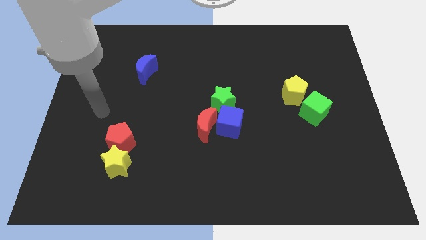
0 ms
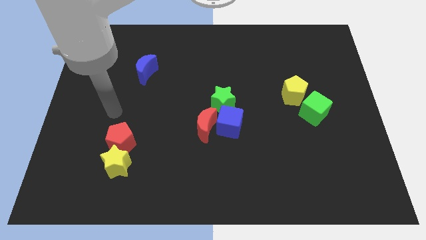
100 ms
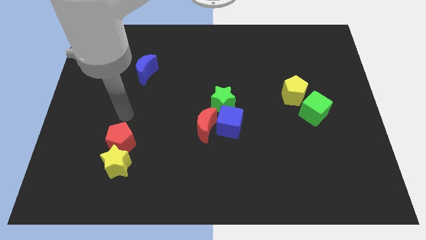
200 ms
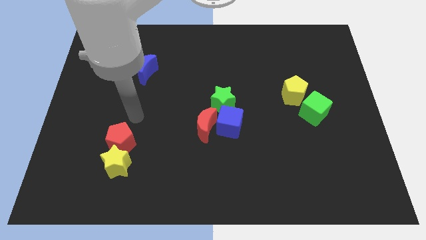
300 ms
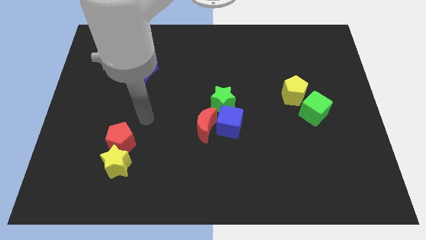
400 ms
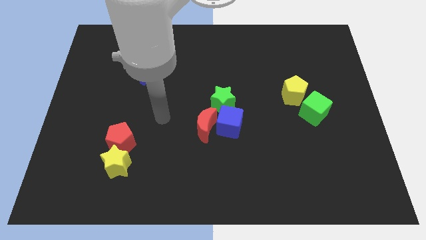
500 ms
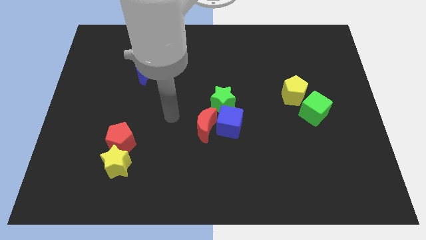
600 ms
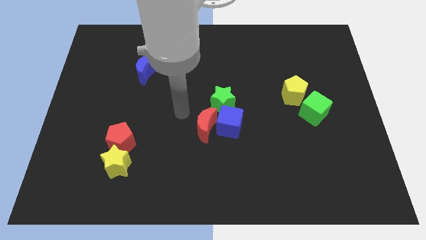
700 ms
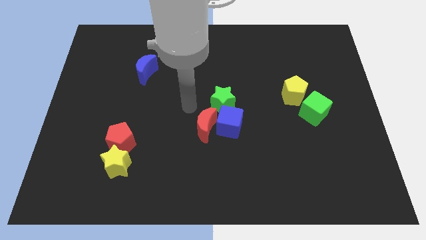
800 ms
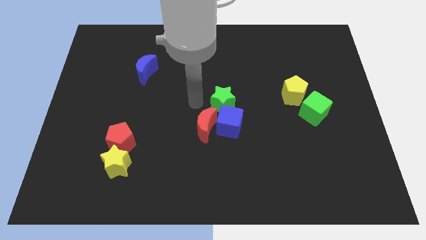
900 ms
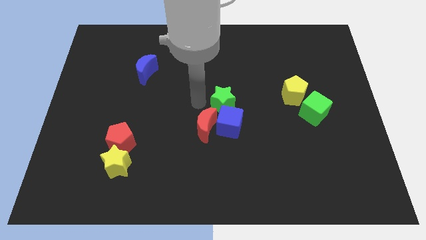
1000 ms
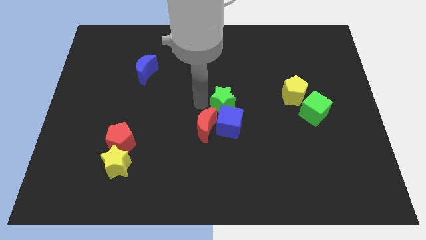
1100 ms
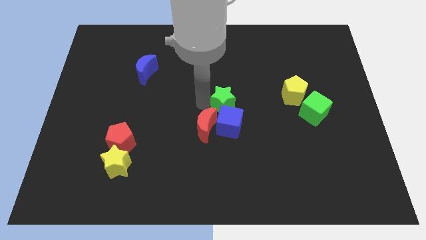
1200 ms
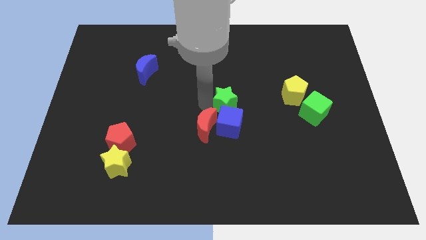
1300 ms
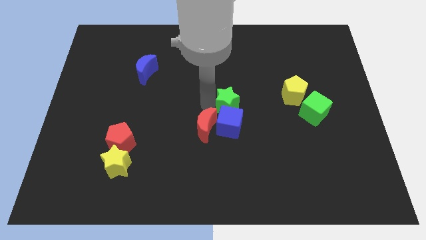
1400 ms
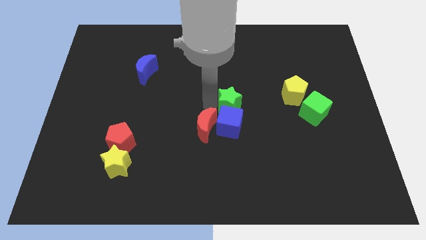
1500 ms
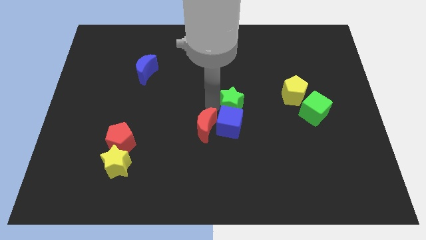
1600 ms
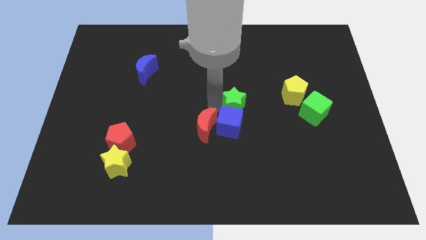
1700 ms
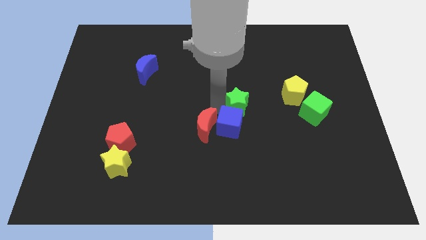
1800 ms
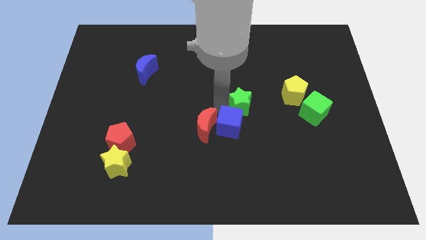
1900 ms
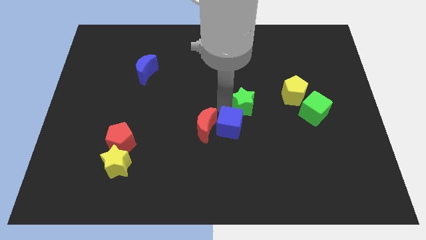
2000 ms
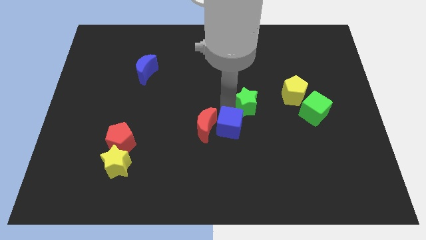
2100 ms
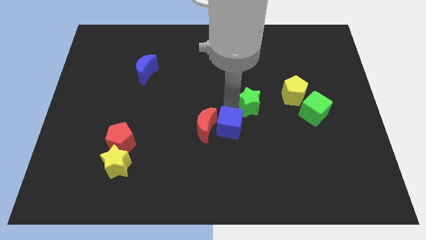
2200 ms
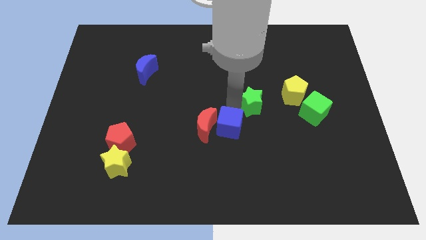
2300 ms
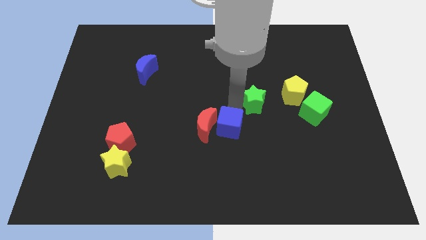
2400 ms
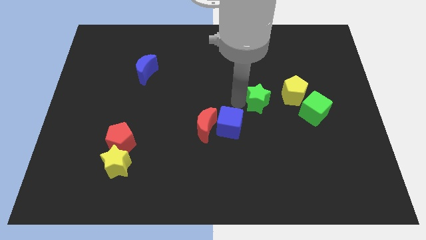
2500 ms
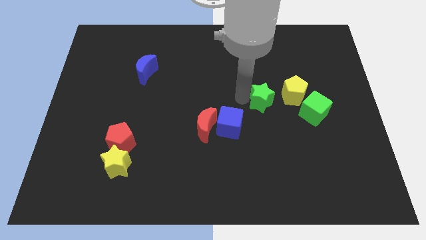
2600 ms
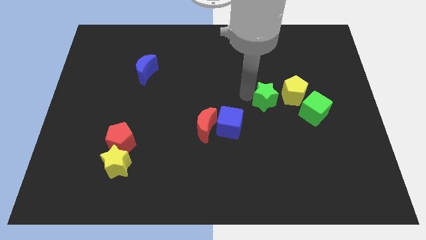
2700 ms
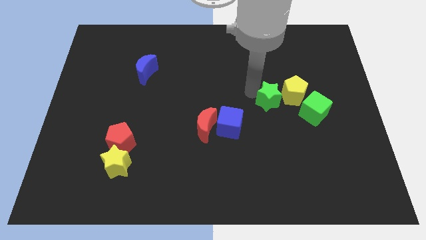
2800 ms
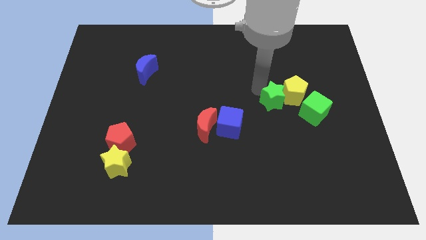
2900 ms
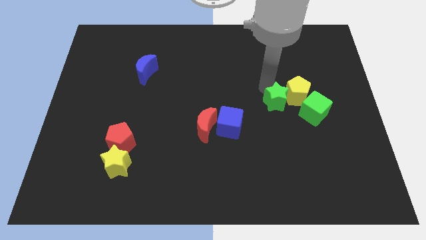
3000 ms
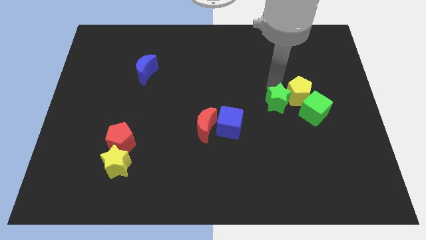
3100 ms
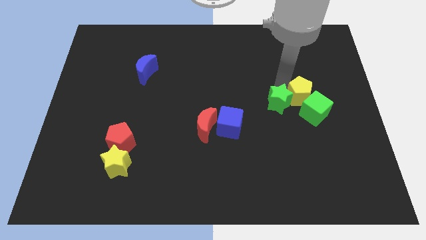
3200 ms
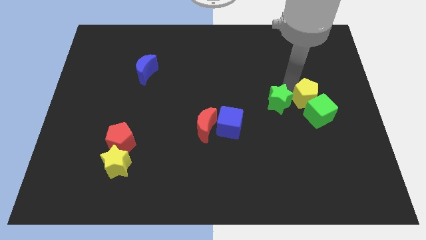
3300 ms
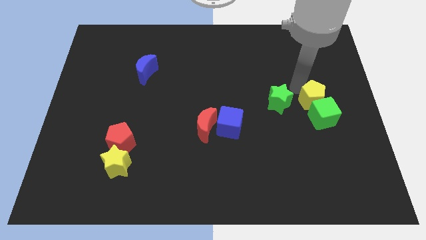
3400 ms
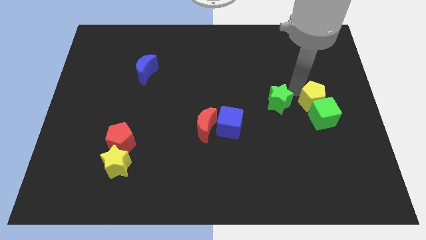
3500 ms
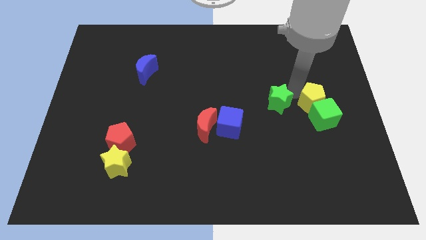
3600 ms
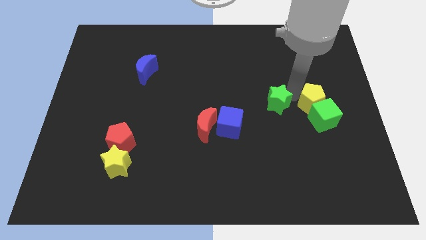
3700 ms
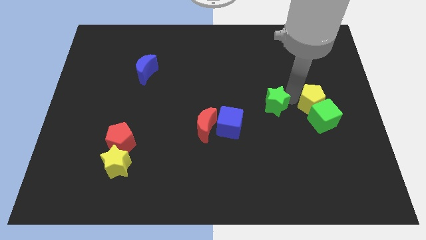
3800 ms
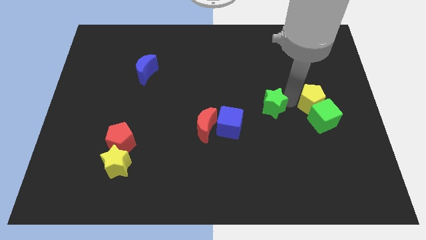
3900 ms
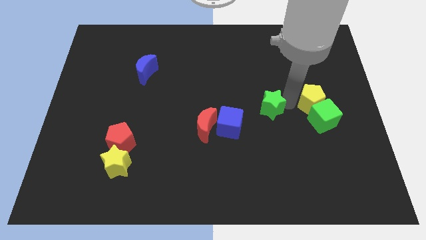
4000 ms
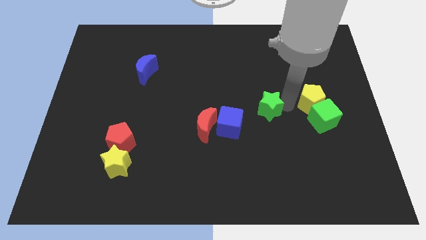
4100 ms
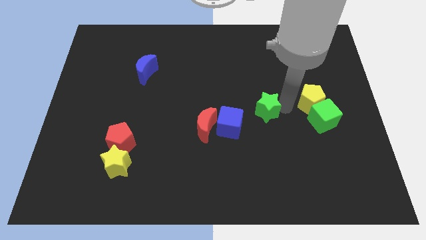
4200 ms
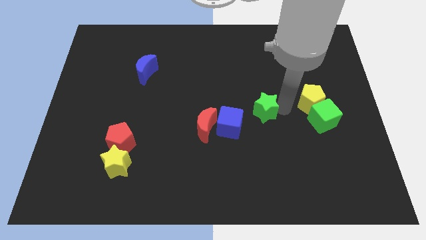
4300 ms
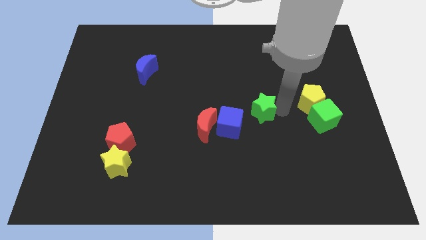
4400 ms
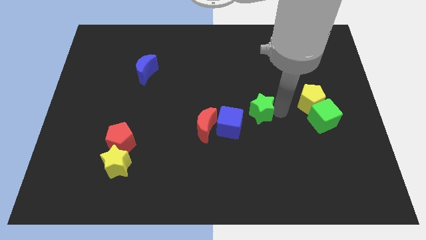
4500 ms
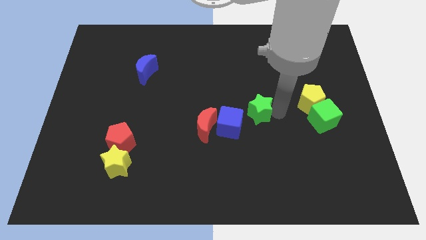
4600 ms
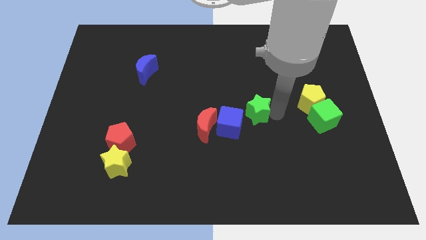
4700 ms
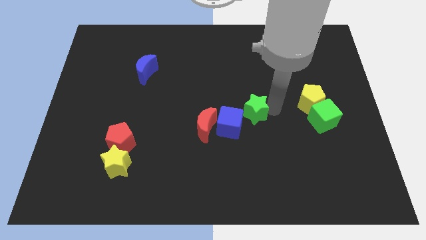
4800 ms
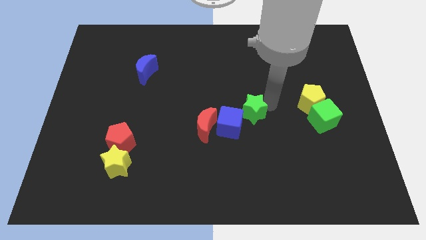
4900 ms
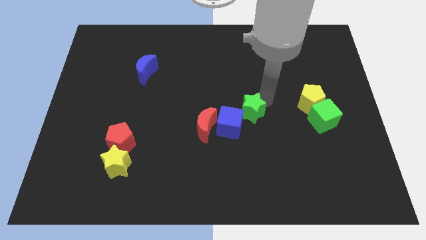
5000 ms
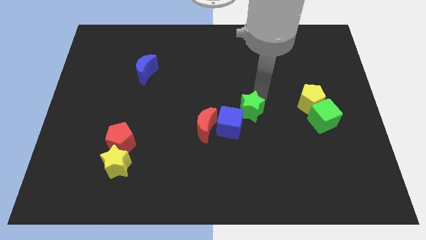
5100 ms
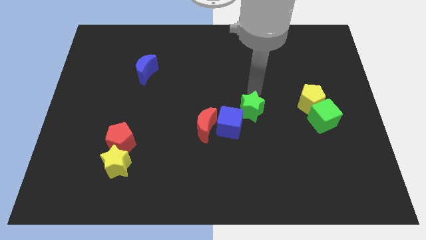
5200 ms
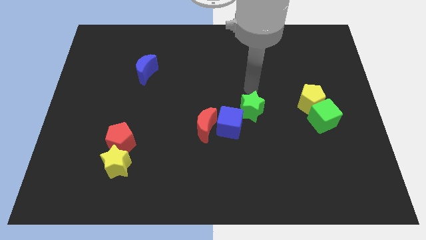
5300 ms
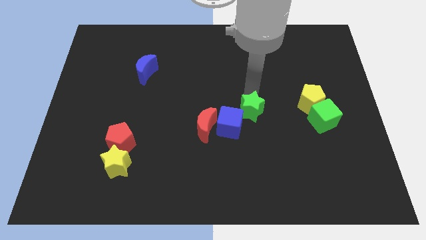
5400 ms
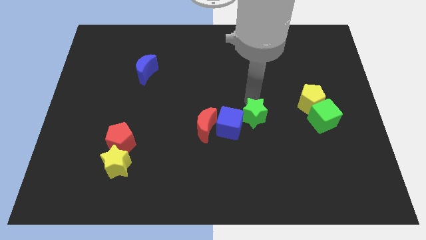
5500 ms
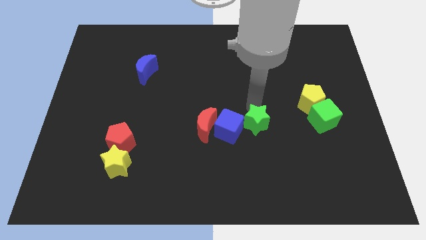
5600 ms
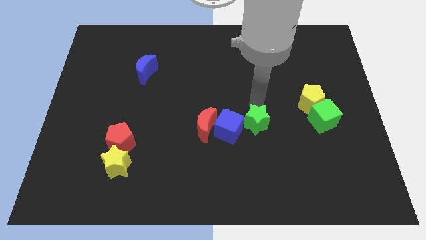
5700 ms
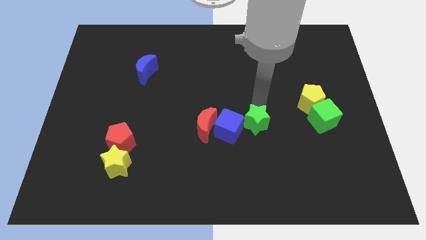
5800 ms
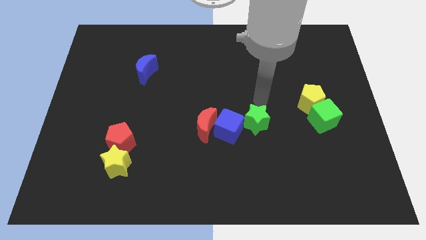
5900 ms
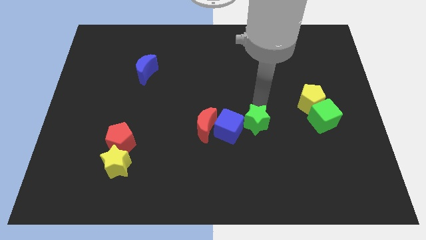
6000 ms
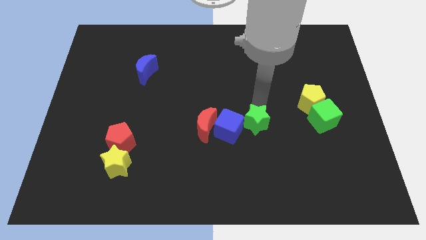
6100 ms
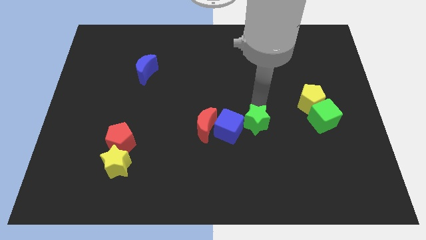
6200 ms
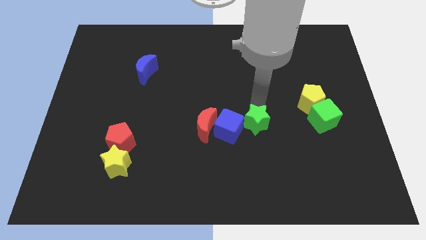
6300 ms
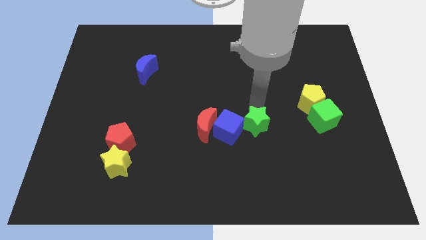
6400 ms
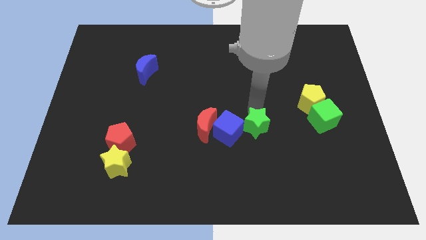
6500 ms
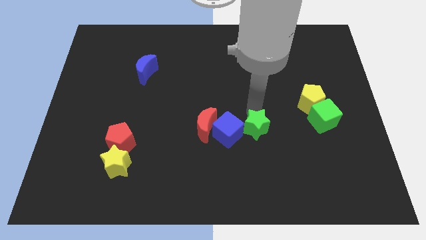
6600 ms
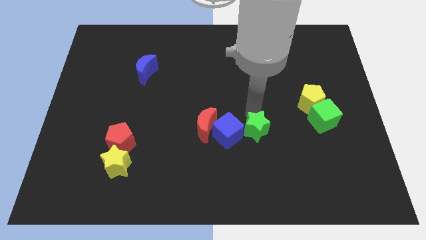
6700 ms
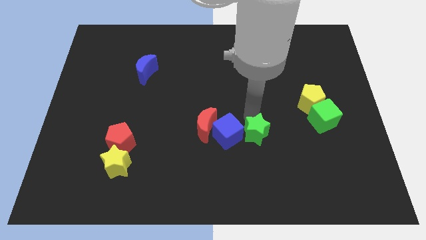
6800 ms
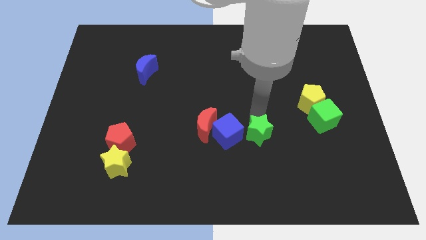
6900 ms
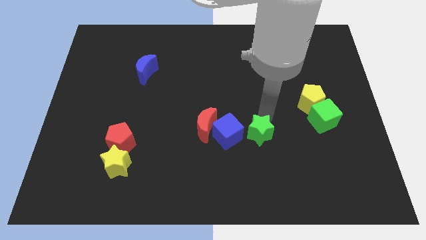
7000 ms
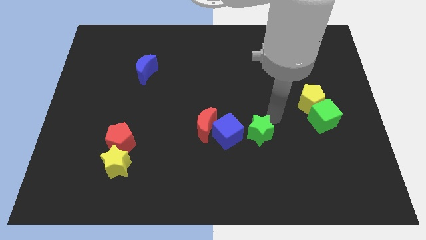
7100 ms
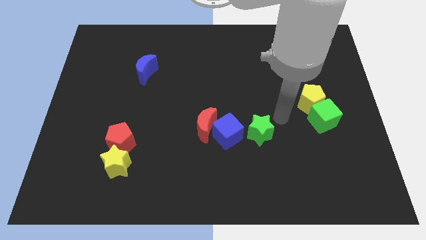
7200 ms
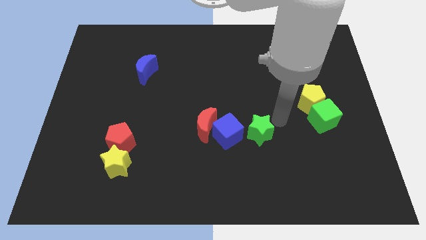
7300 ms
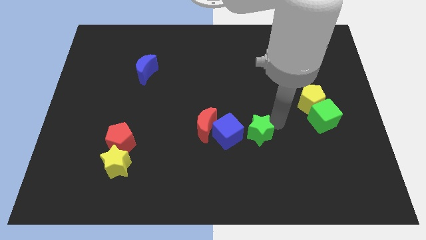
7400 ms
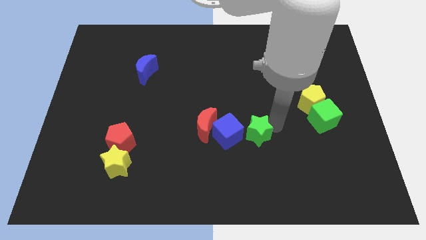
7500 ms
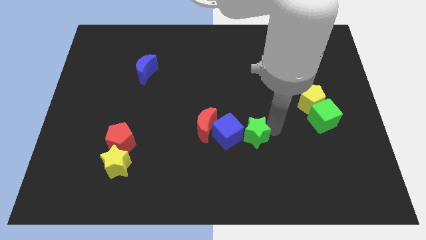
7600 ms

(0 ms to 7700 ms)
move the green star down a little bit

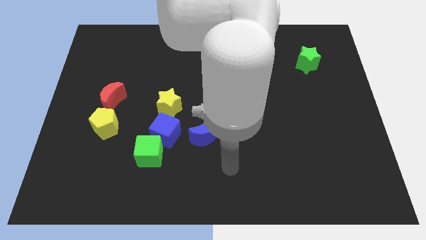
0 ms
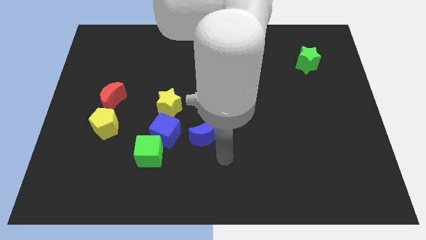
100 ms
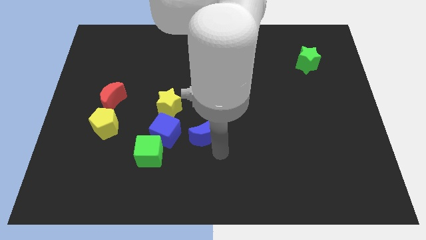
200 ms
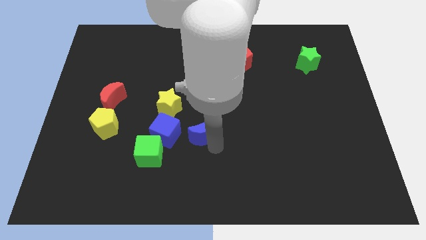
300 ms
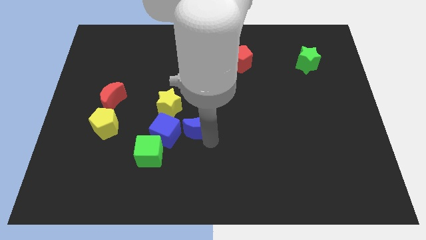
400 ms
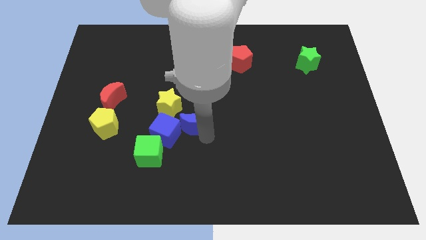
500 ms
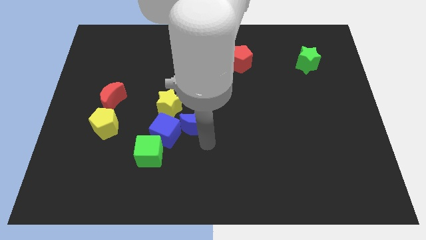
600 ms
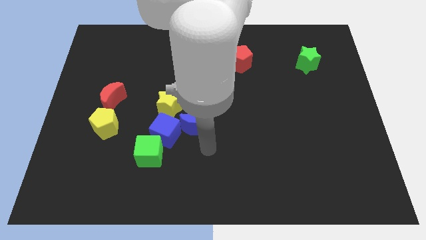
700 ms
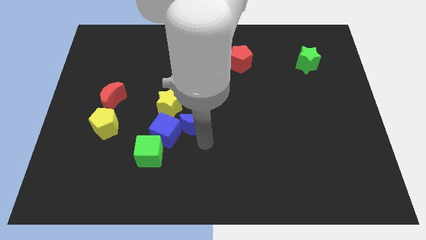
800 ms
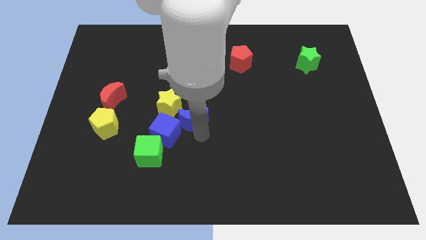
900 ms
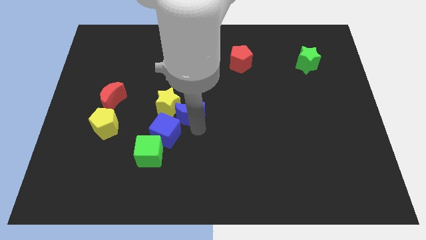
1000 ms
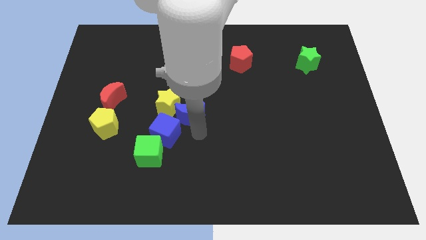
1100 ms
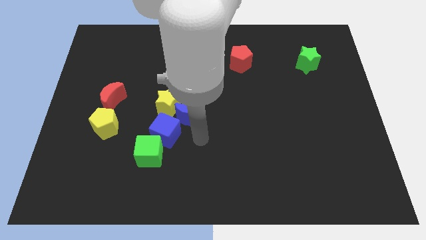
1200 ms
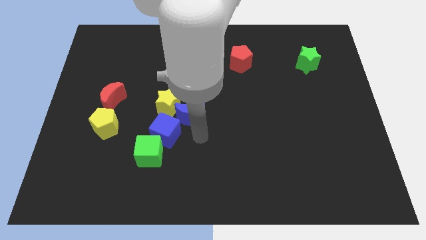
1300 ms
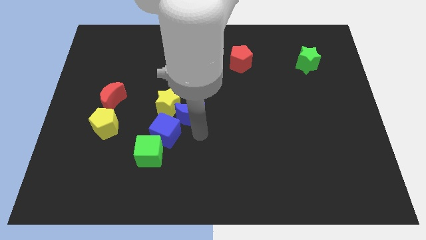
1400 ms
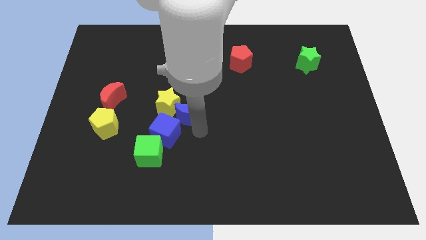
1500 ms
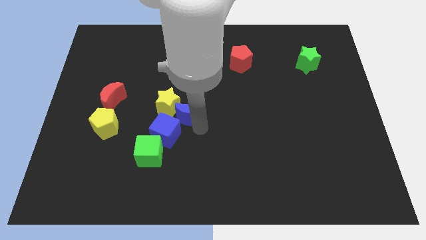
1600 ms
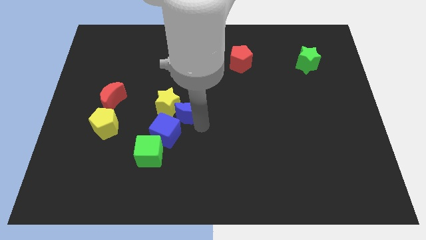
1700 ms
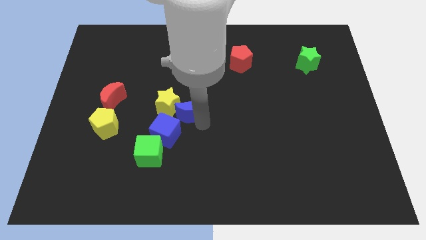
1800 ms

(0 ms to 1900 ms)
slightly push the blue moon upwards and to the left diagonally
